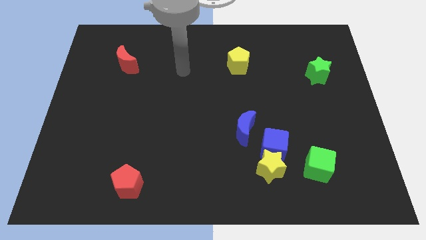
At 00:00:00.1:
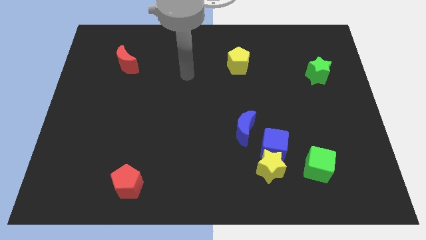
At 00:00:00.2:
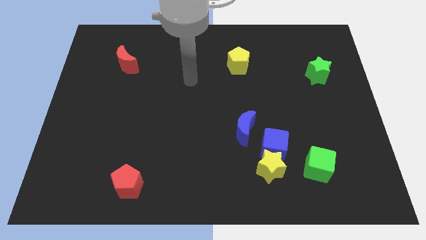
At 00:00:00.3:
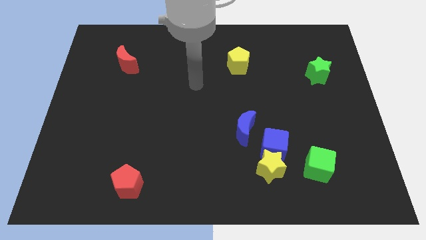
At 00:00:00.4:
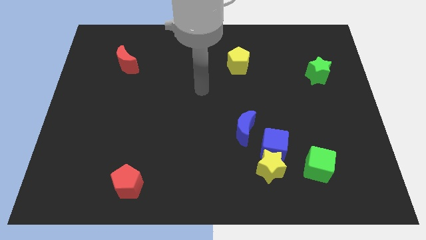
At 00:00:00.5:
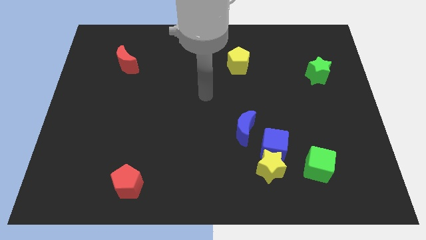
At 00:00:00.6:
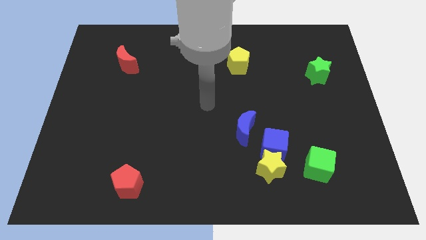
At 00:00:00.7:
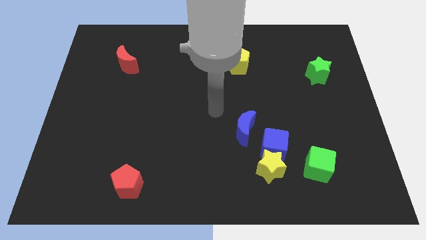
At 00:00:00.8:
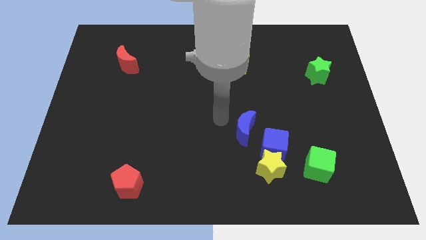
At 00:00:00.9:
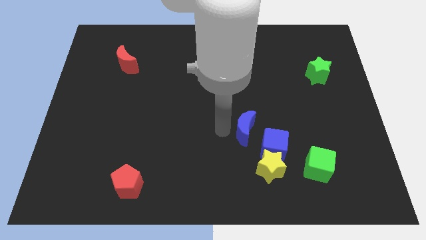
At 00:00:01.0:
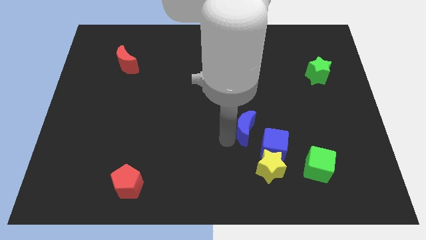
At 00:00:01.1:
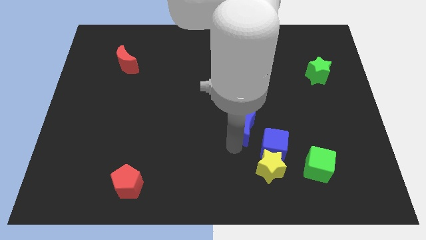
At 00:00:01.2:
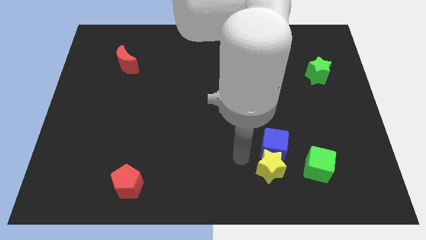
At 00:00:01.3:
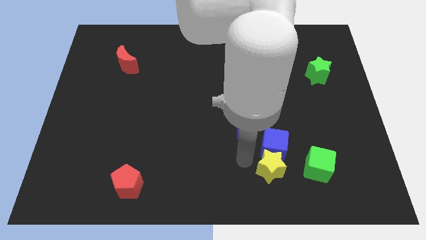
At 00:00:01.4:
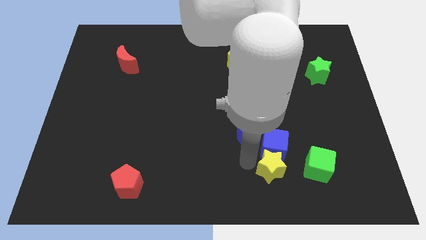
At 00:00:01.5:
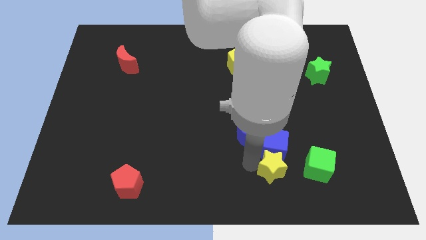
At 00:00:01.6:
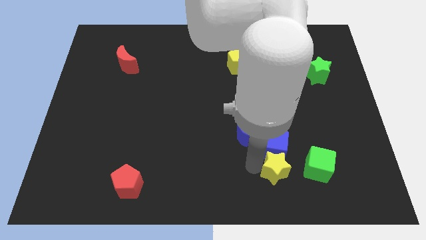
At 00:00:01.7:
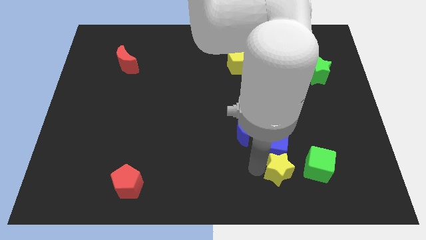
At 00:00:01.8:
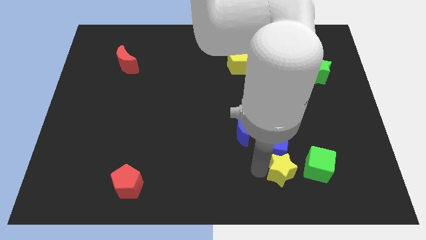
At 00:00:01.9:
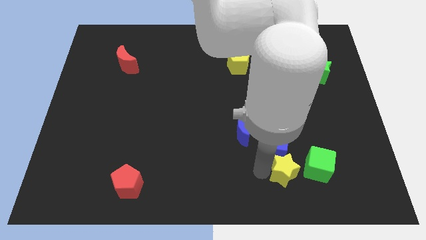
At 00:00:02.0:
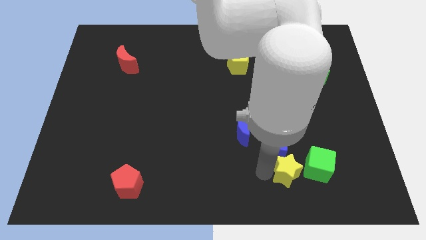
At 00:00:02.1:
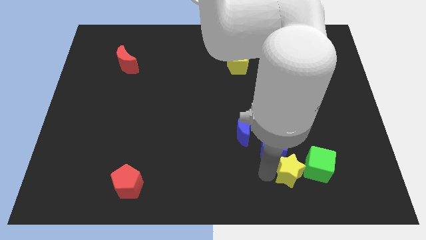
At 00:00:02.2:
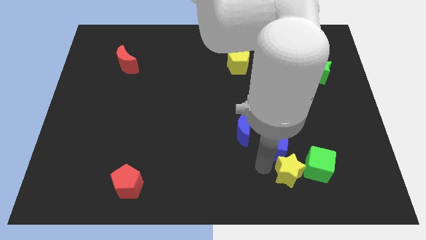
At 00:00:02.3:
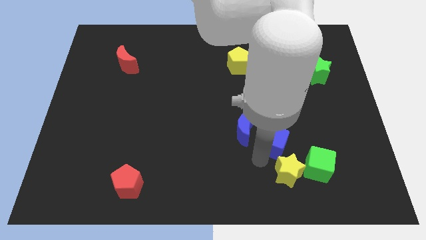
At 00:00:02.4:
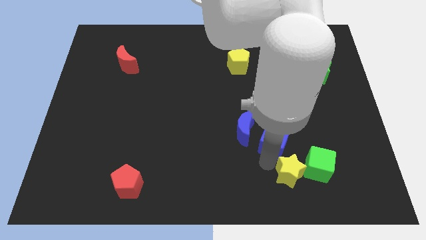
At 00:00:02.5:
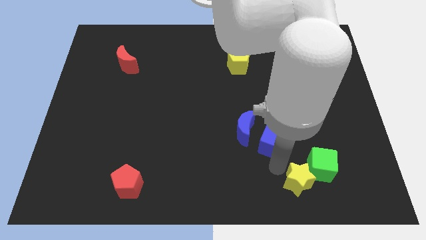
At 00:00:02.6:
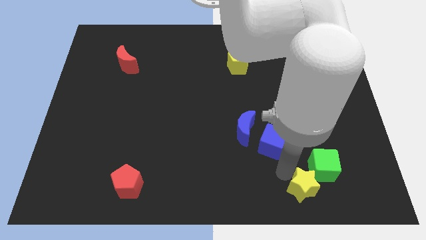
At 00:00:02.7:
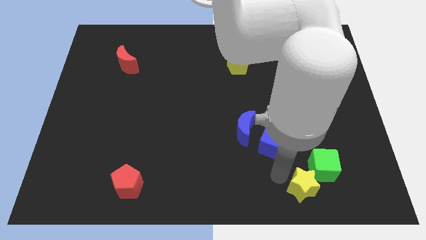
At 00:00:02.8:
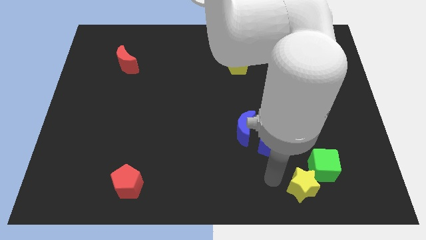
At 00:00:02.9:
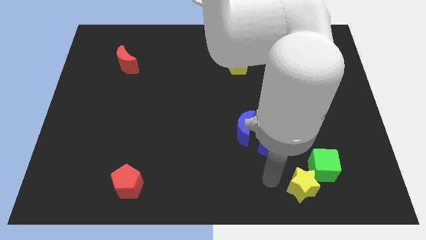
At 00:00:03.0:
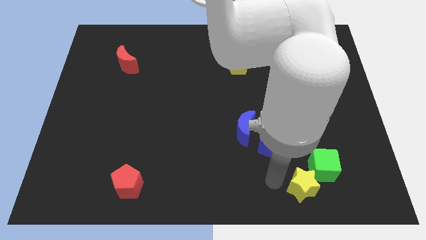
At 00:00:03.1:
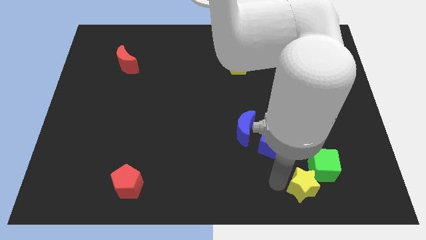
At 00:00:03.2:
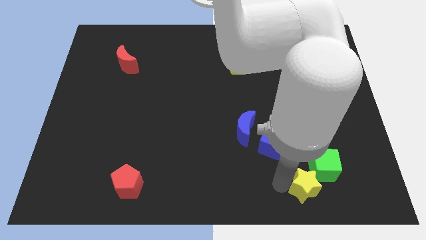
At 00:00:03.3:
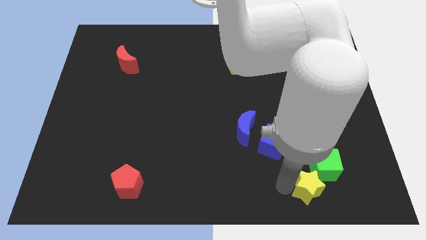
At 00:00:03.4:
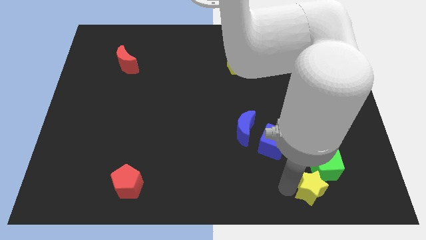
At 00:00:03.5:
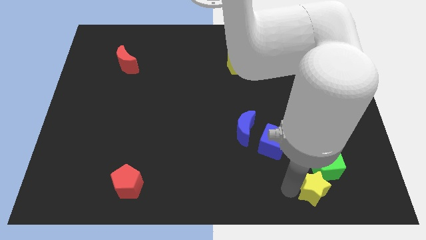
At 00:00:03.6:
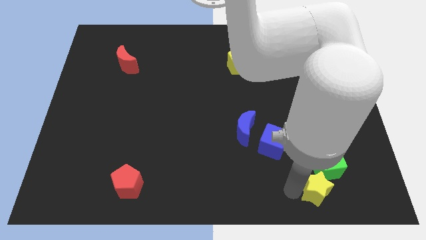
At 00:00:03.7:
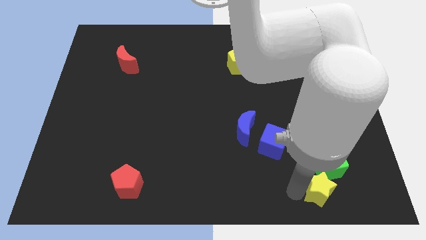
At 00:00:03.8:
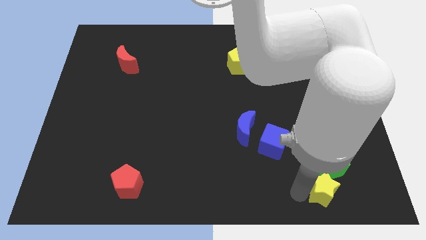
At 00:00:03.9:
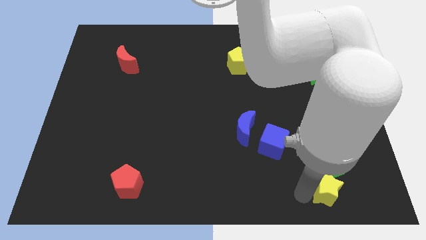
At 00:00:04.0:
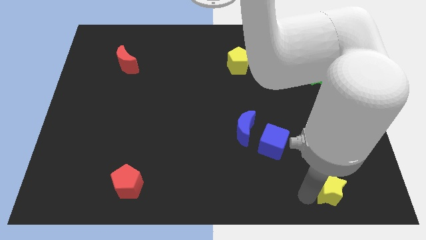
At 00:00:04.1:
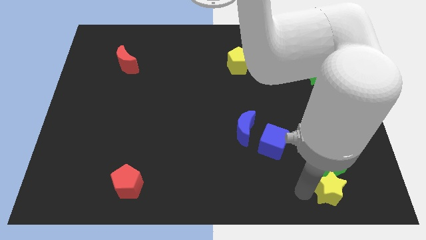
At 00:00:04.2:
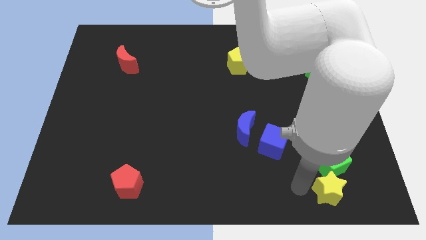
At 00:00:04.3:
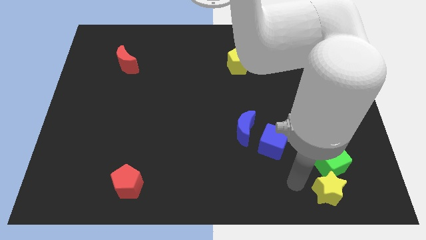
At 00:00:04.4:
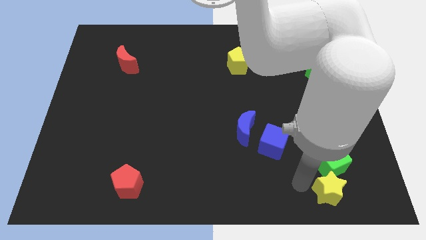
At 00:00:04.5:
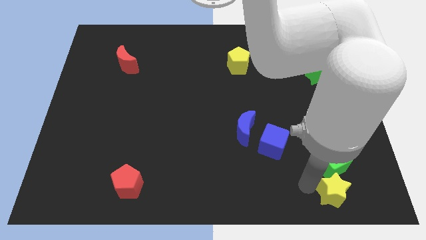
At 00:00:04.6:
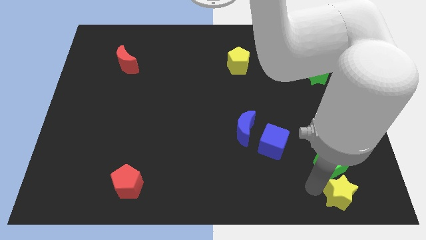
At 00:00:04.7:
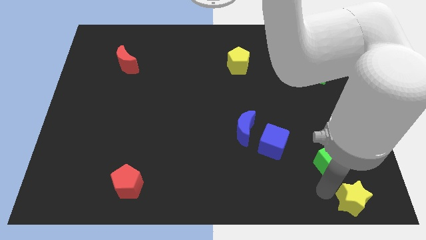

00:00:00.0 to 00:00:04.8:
slide the yellow star to the bottom right of the board

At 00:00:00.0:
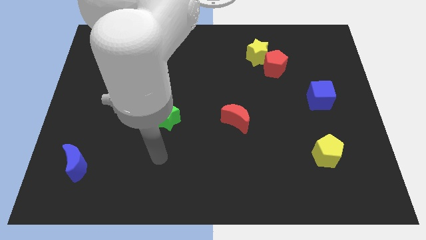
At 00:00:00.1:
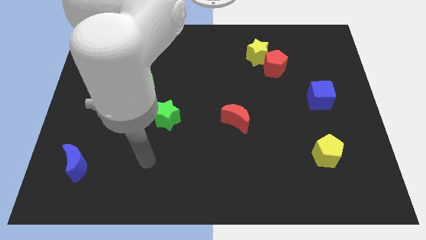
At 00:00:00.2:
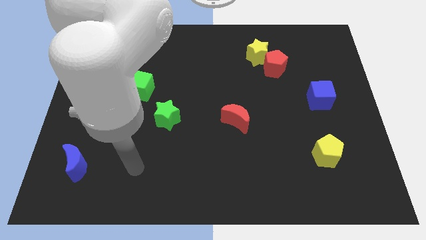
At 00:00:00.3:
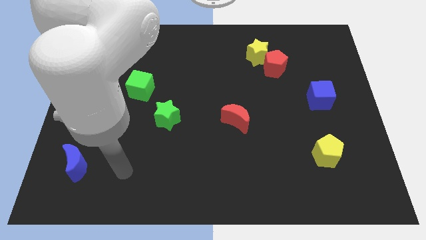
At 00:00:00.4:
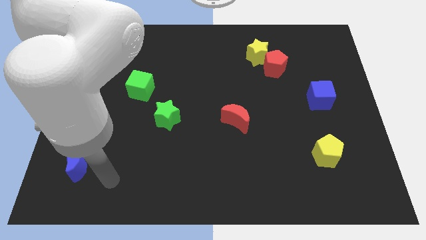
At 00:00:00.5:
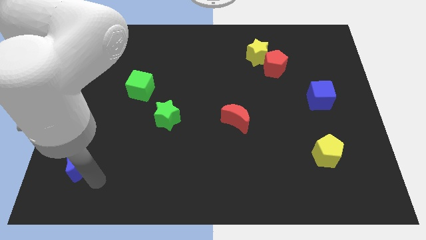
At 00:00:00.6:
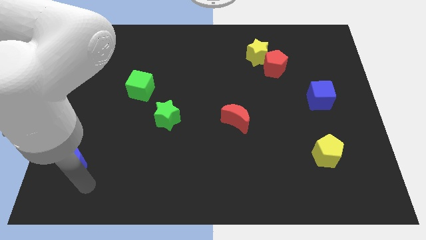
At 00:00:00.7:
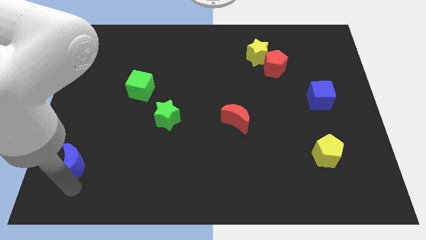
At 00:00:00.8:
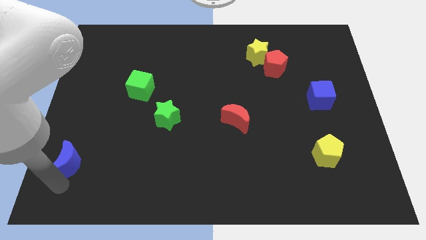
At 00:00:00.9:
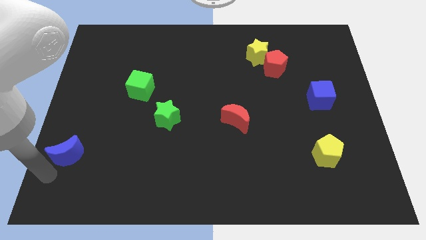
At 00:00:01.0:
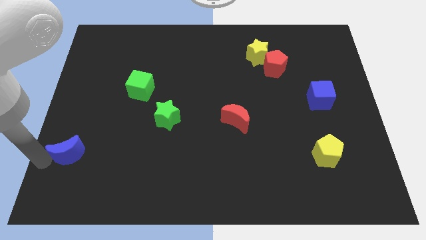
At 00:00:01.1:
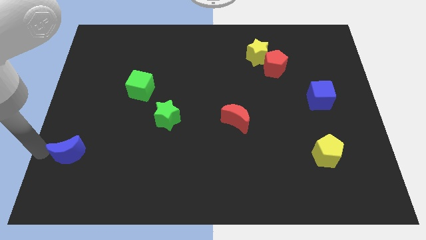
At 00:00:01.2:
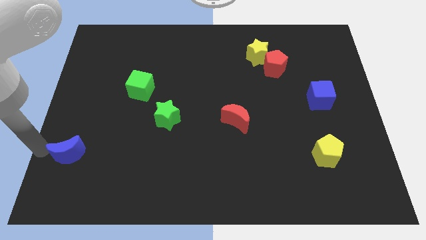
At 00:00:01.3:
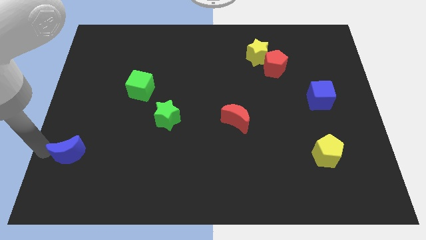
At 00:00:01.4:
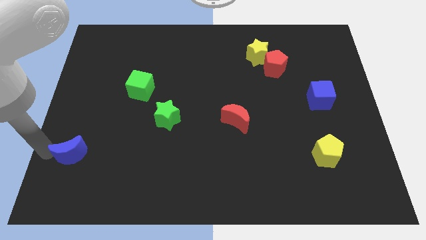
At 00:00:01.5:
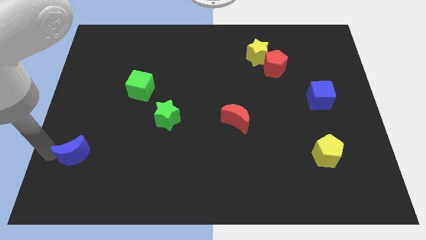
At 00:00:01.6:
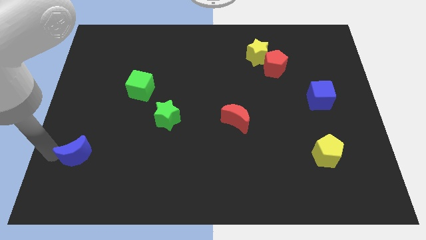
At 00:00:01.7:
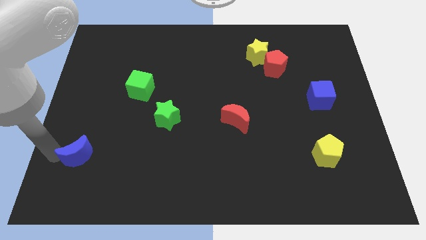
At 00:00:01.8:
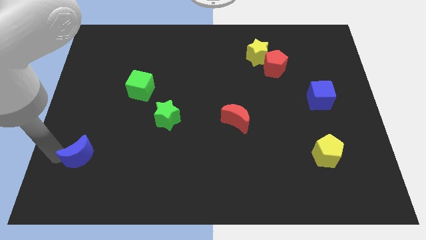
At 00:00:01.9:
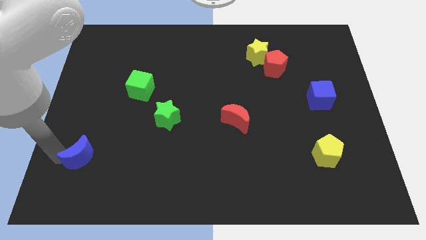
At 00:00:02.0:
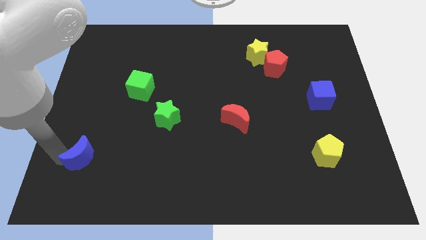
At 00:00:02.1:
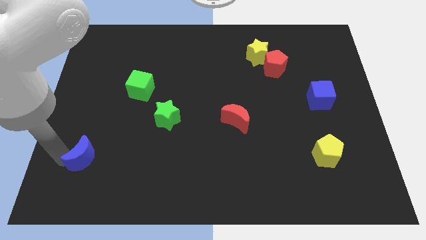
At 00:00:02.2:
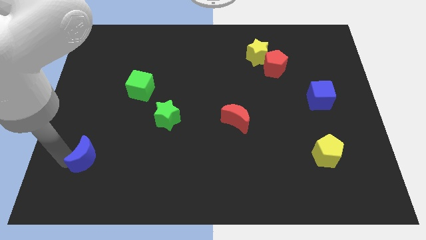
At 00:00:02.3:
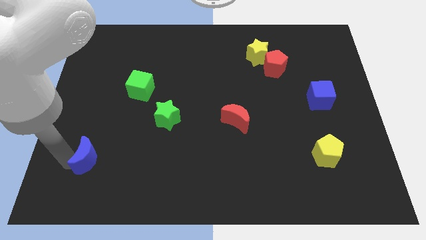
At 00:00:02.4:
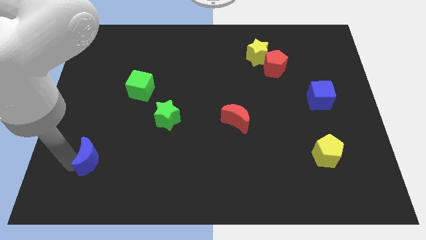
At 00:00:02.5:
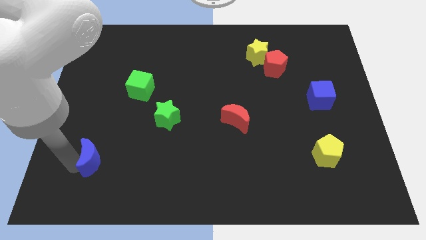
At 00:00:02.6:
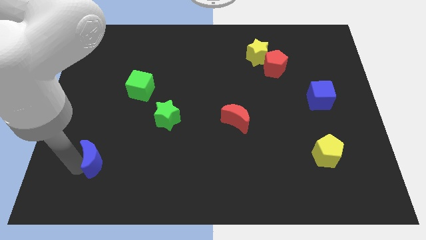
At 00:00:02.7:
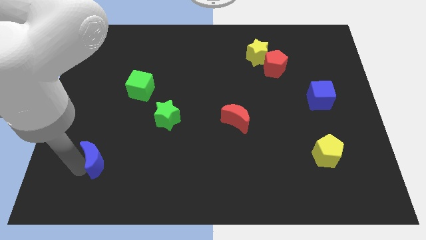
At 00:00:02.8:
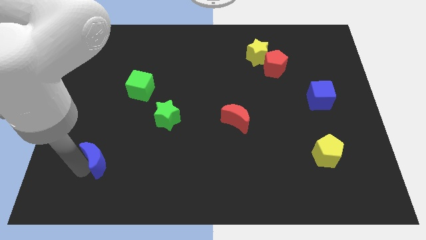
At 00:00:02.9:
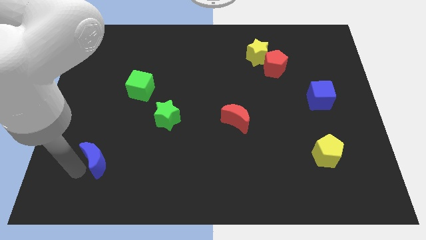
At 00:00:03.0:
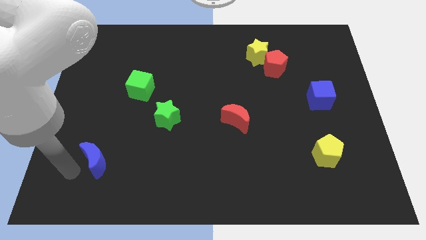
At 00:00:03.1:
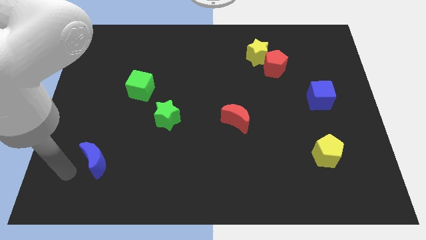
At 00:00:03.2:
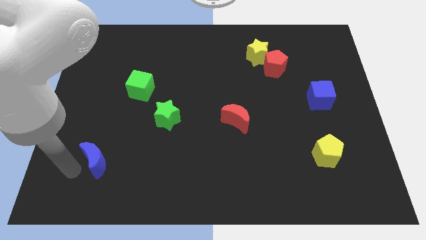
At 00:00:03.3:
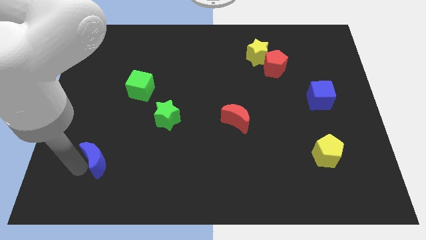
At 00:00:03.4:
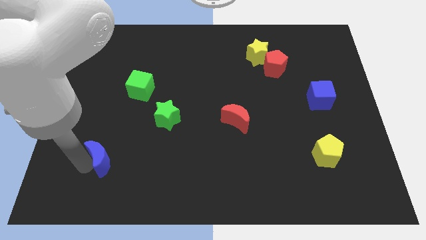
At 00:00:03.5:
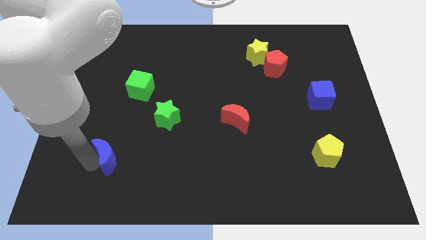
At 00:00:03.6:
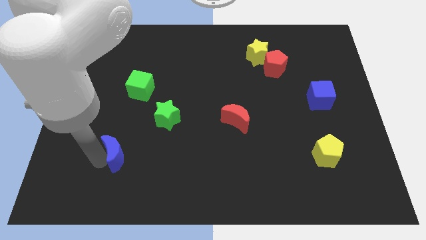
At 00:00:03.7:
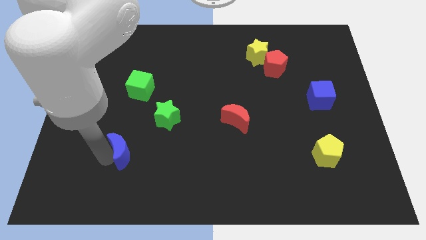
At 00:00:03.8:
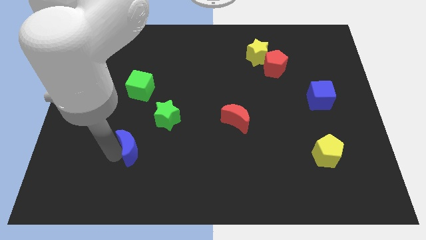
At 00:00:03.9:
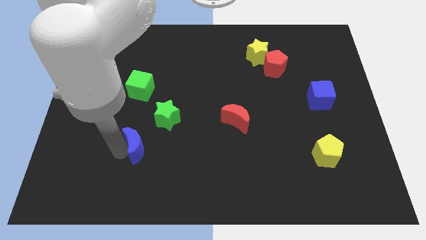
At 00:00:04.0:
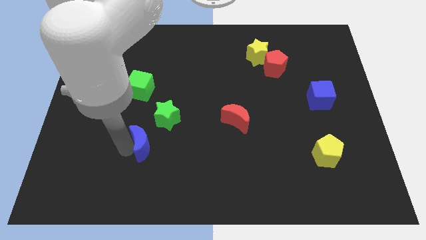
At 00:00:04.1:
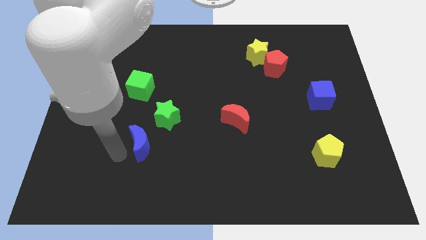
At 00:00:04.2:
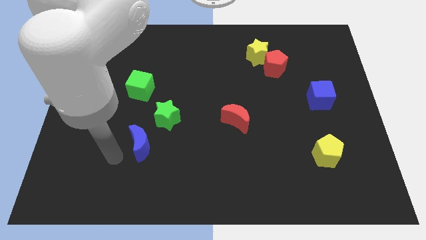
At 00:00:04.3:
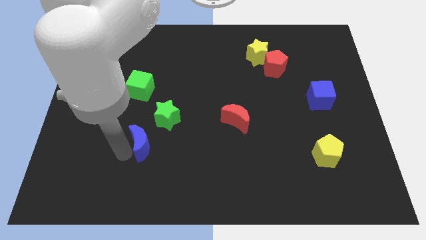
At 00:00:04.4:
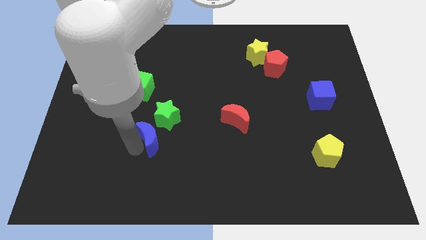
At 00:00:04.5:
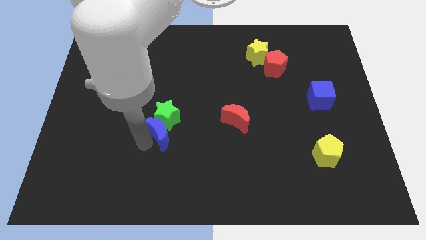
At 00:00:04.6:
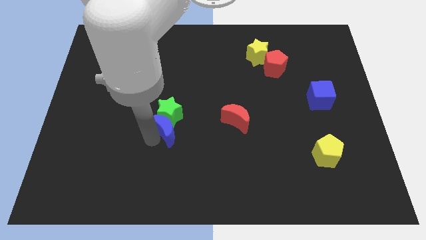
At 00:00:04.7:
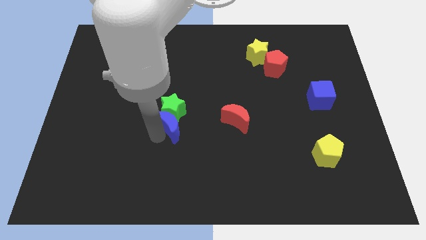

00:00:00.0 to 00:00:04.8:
push the blue moon to the middle
